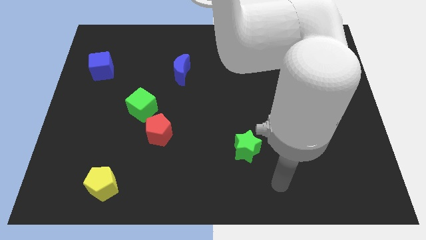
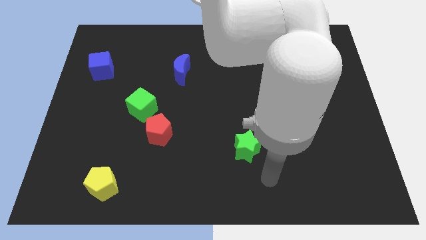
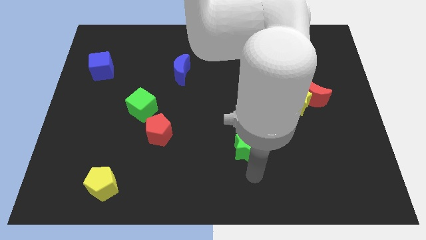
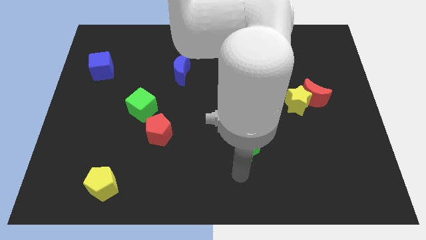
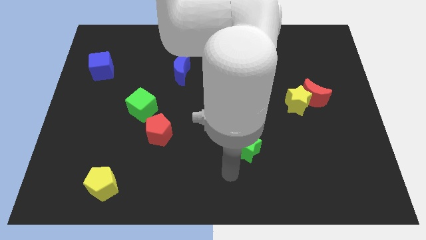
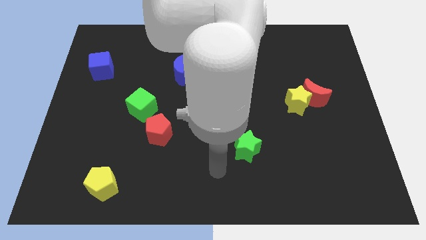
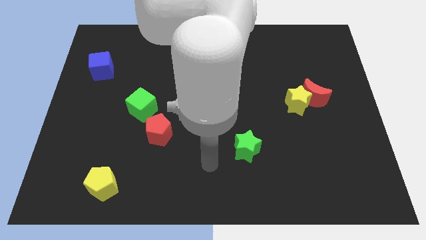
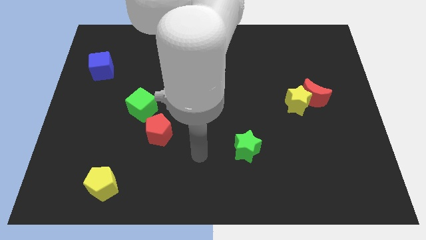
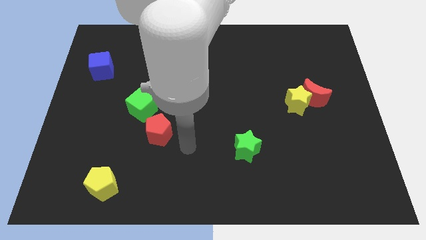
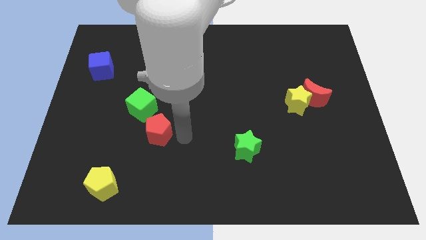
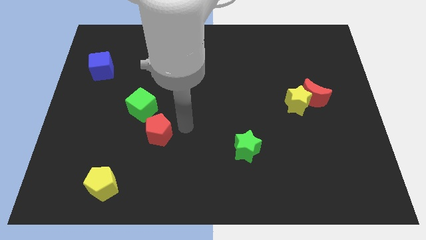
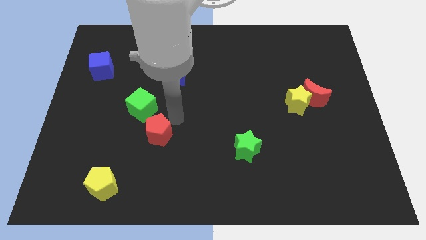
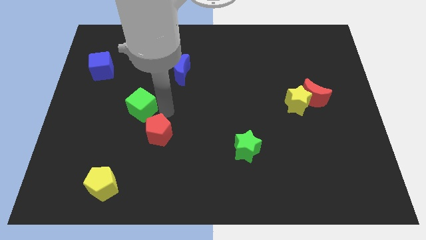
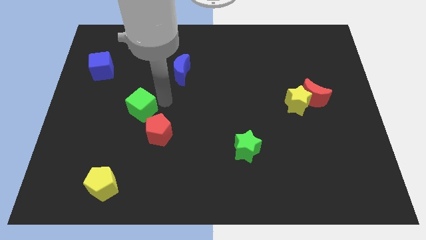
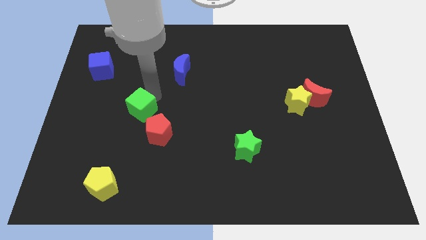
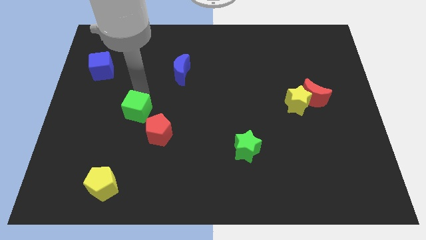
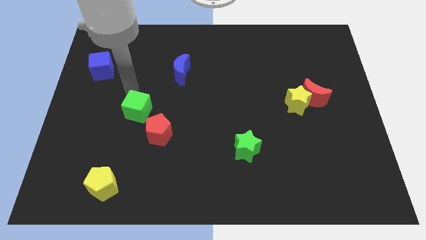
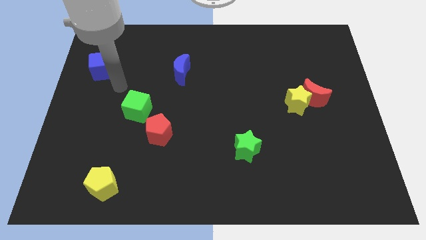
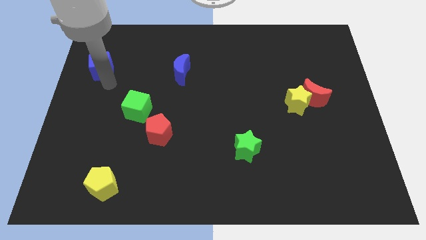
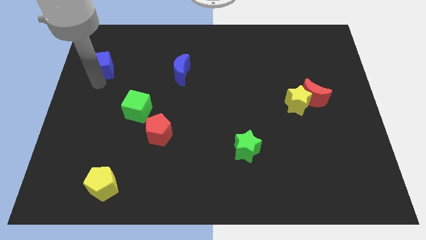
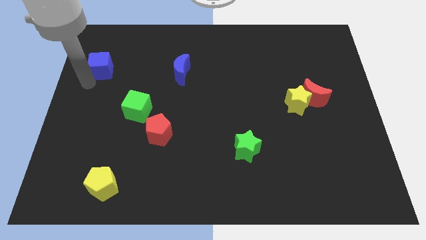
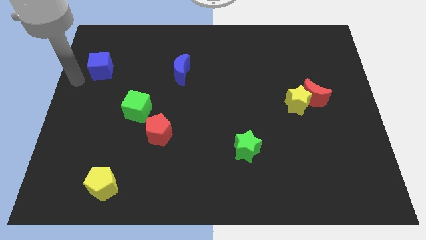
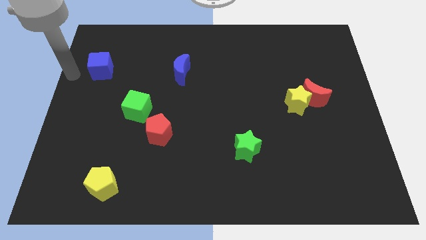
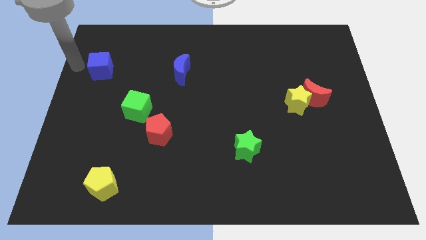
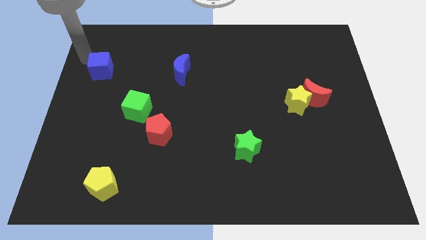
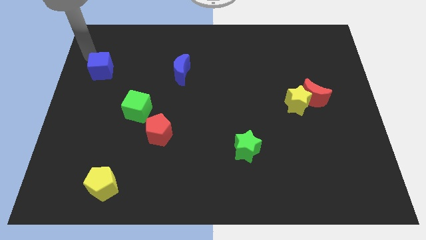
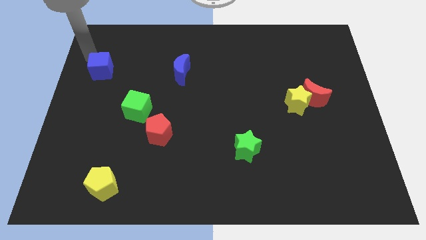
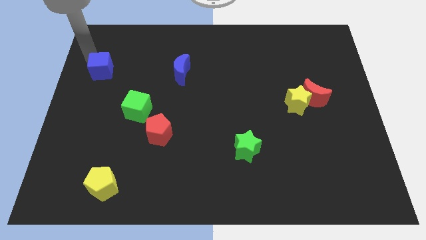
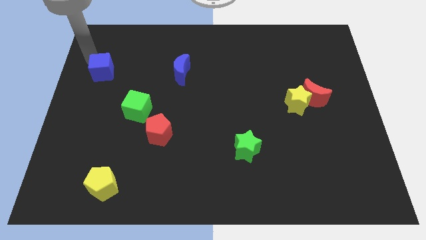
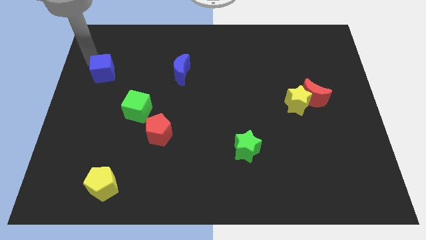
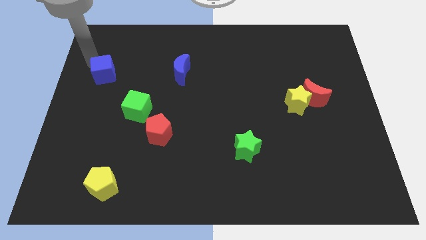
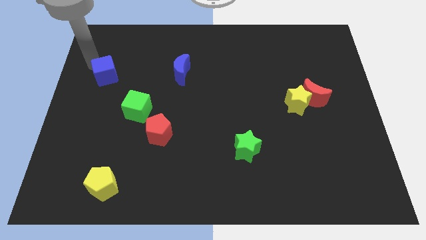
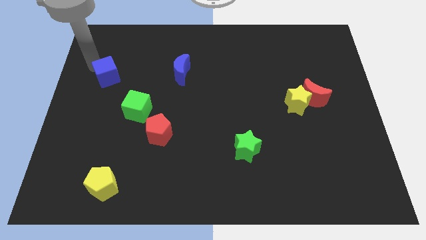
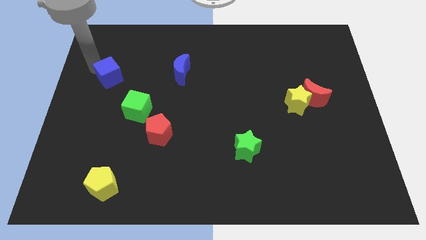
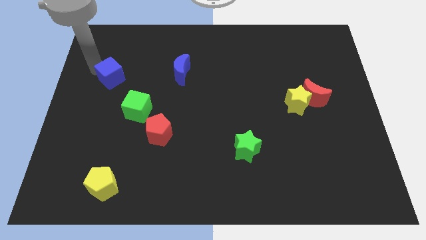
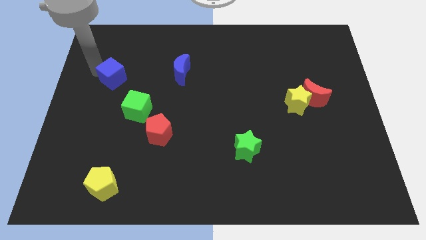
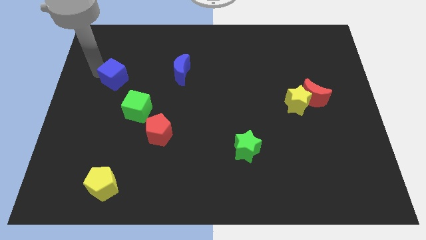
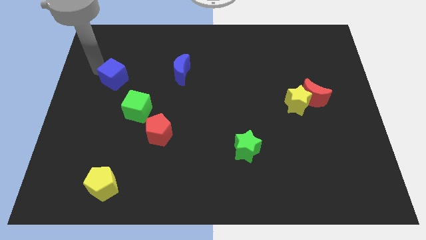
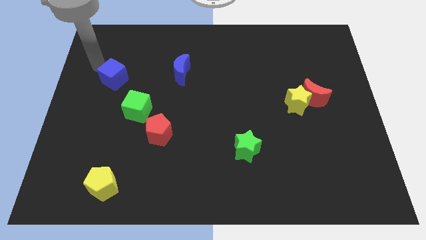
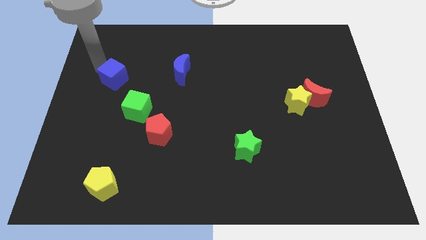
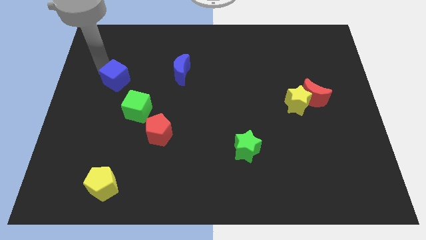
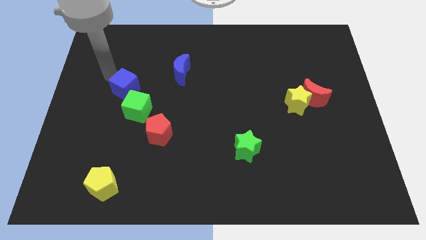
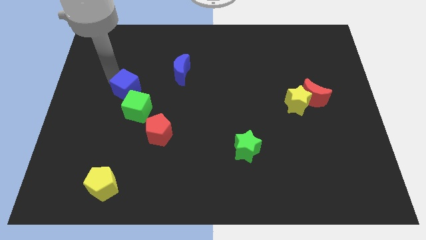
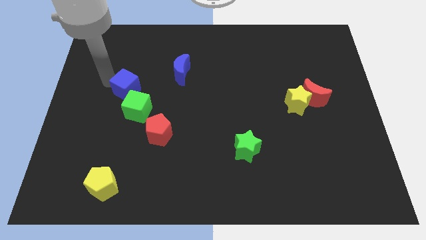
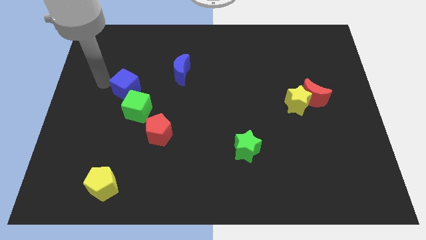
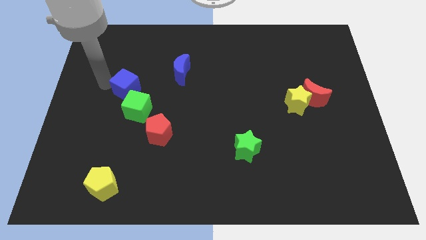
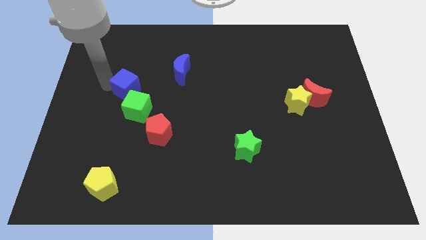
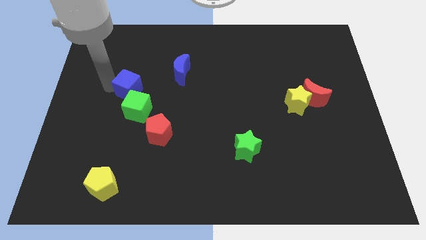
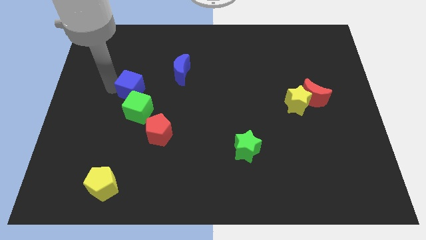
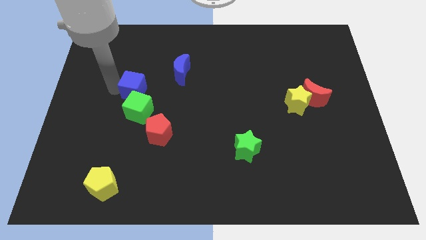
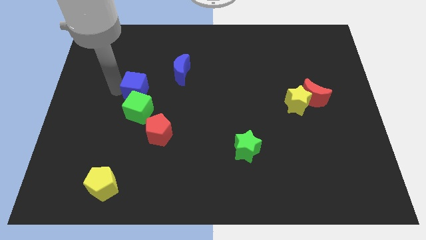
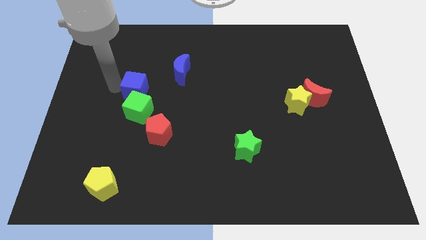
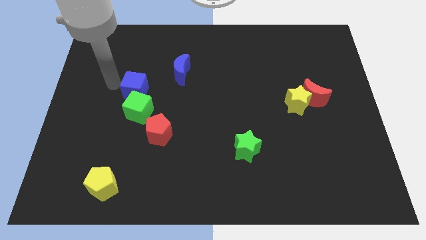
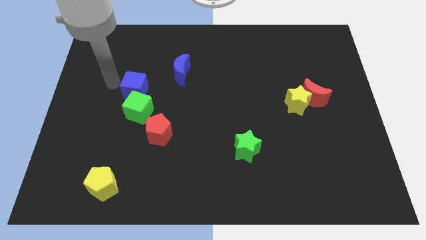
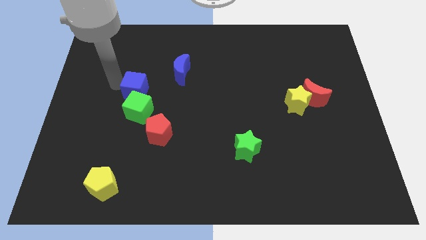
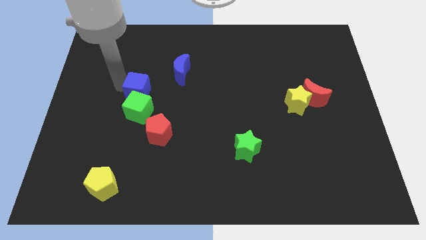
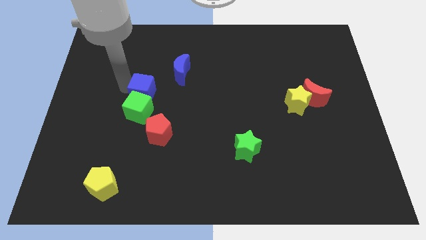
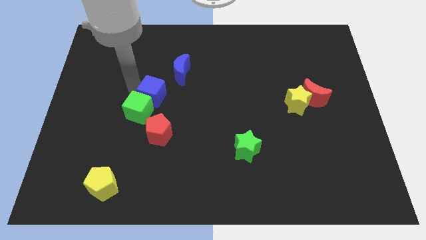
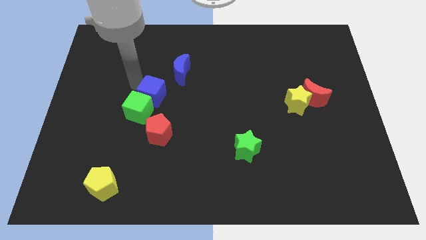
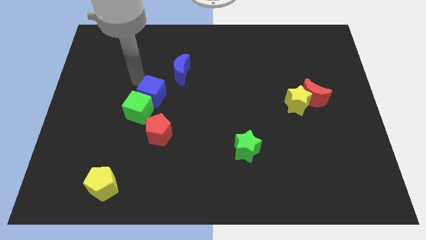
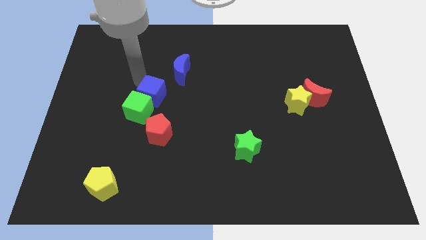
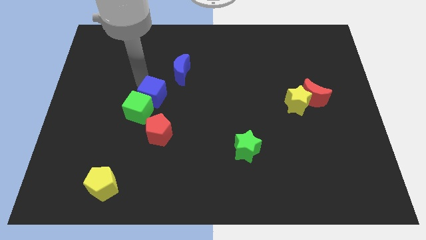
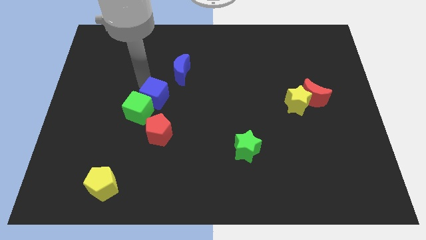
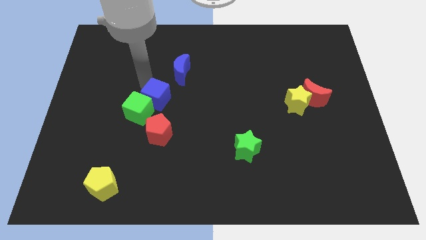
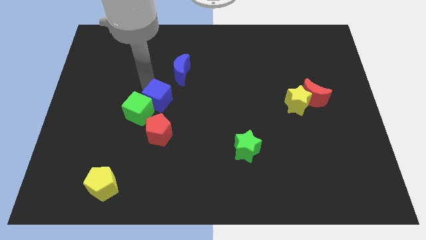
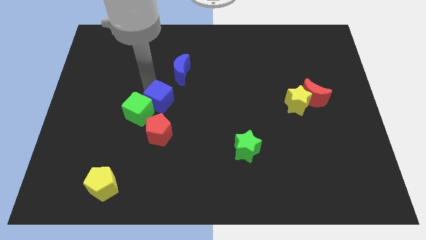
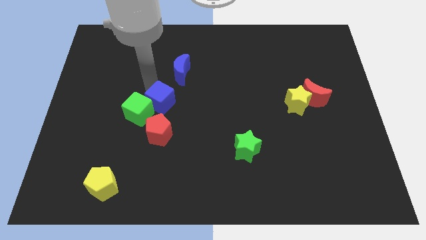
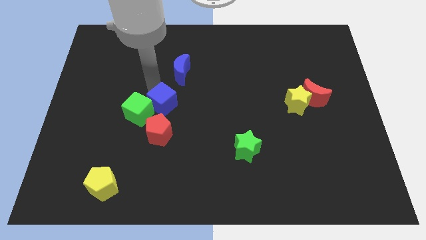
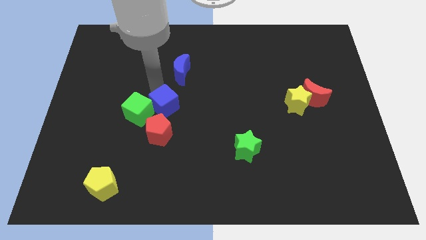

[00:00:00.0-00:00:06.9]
move the blue cube downwards and then right

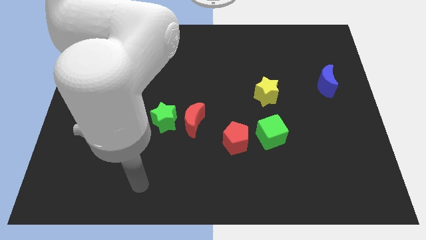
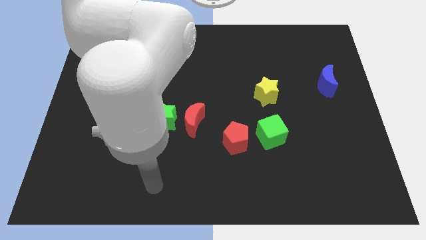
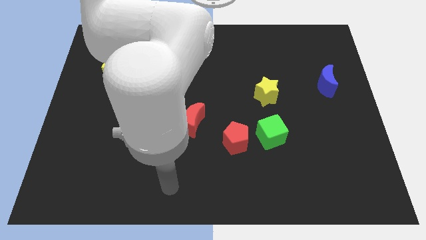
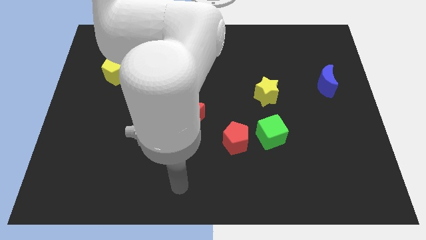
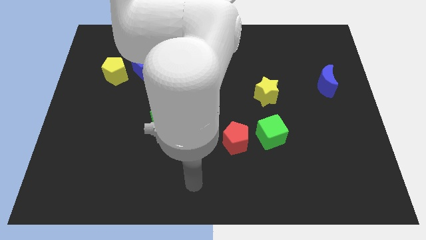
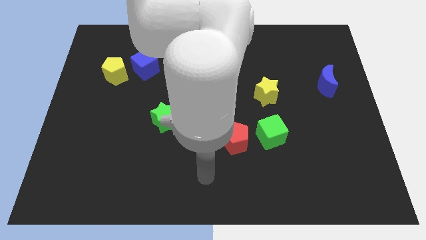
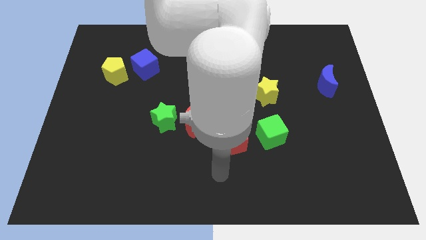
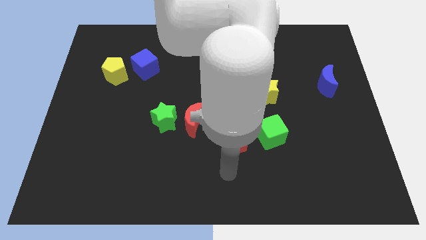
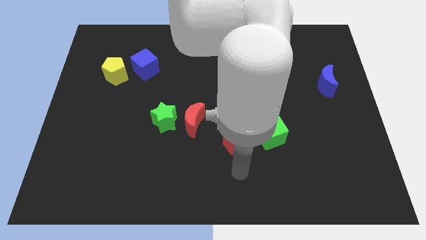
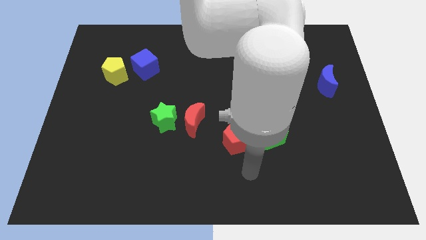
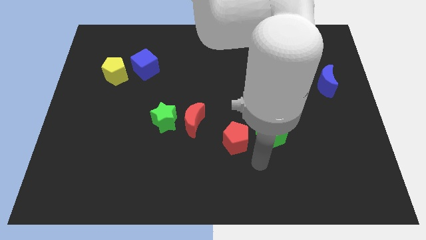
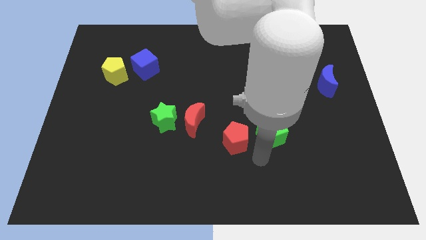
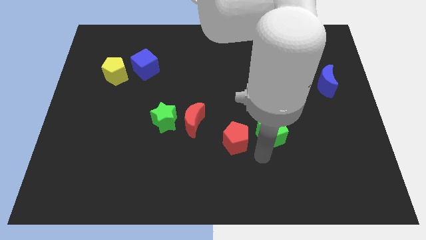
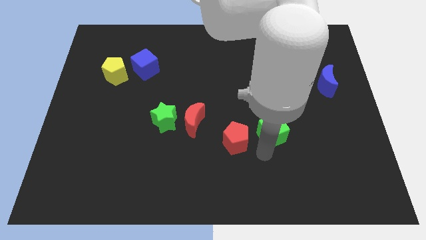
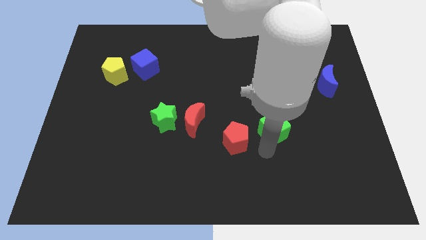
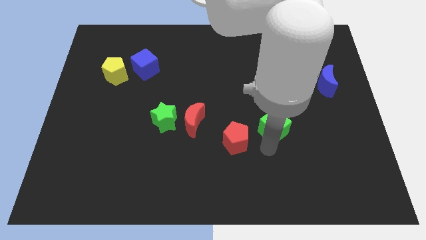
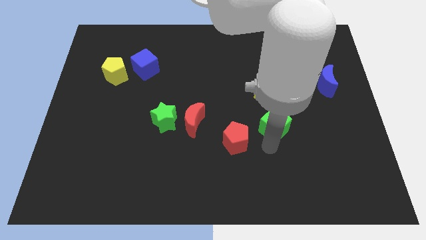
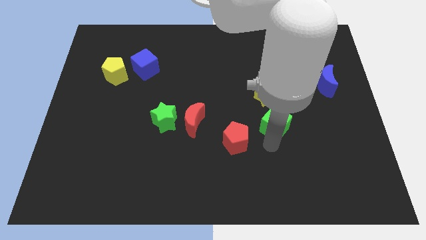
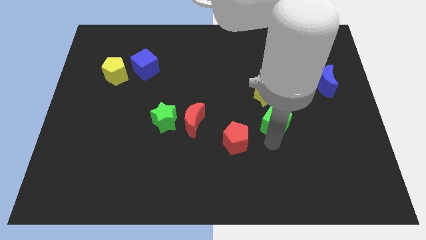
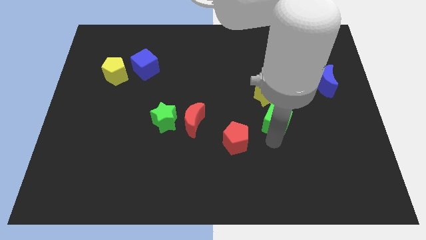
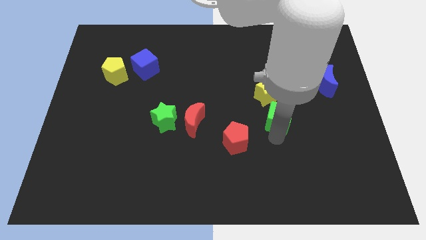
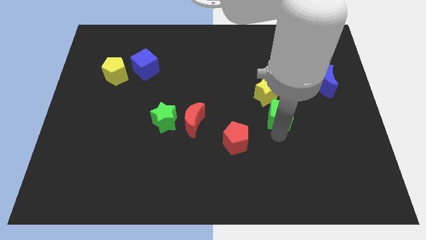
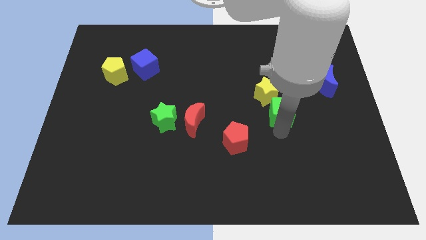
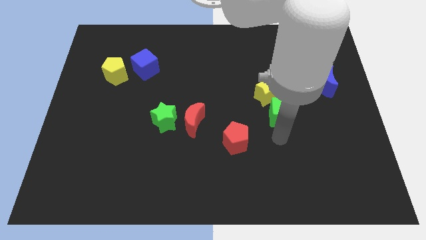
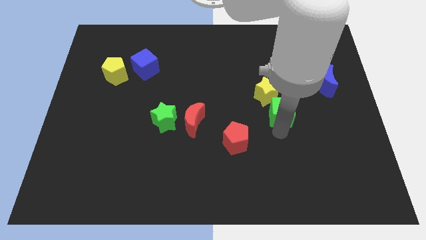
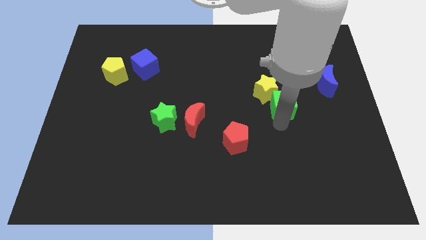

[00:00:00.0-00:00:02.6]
slightly move the green cube up
